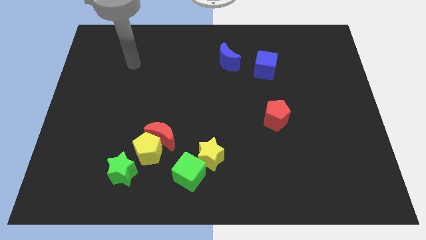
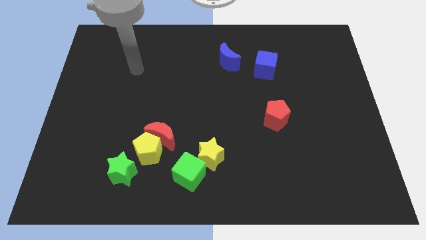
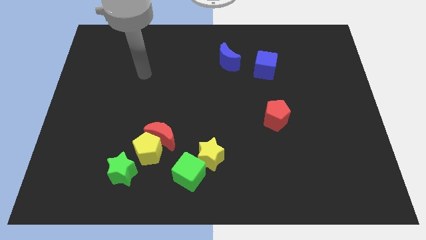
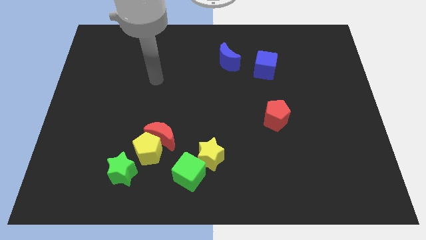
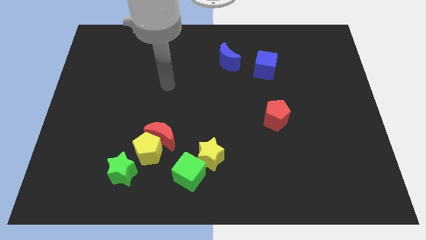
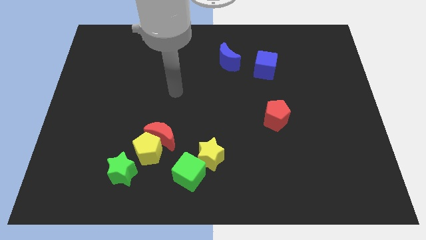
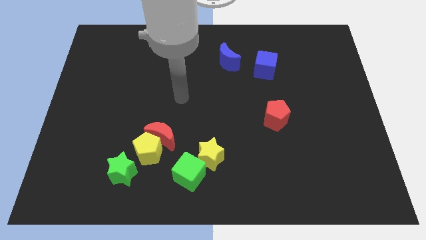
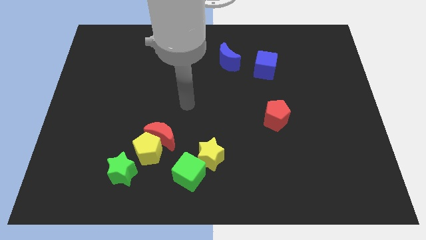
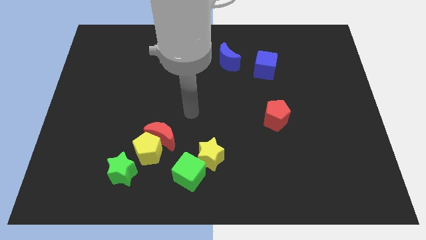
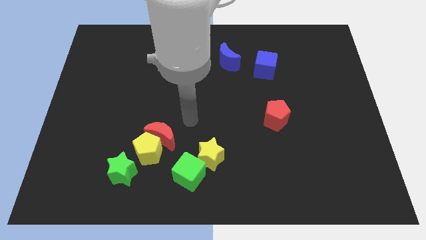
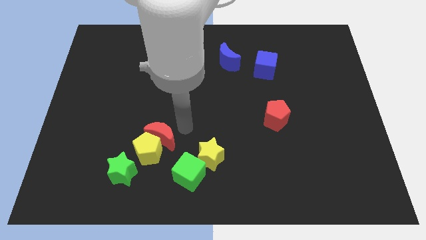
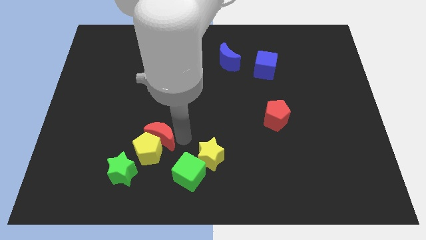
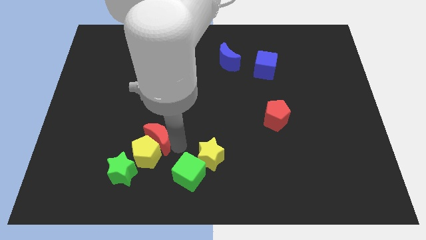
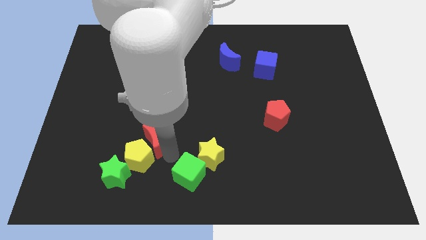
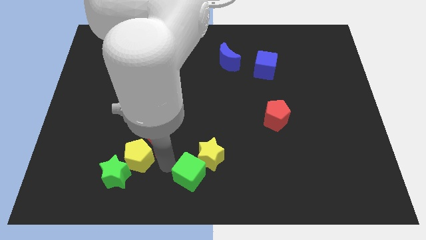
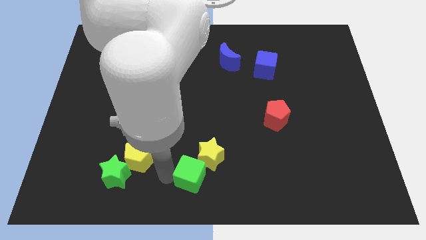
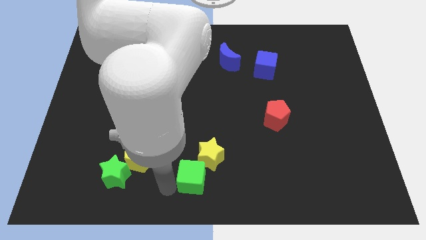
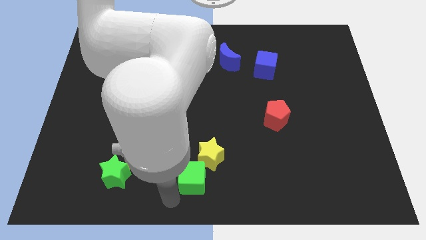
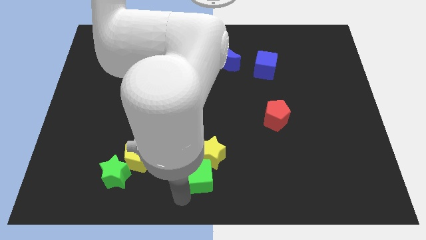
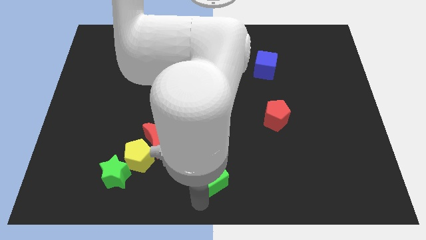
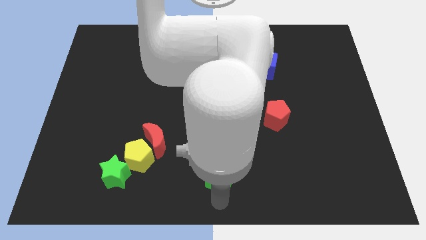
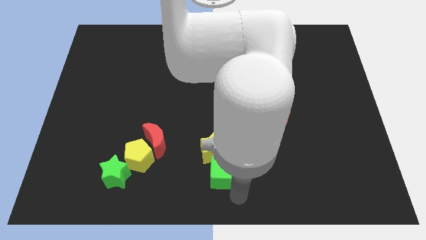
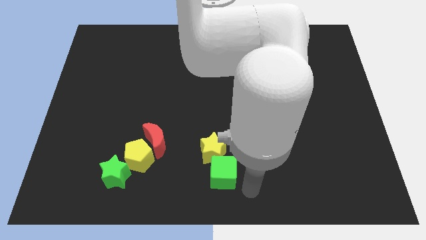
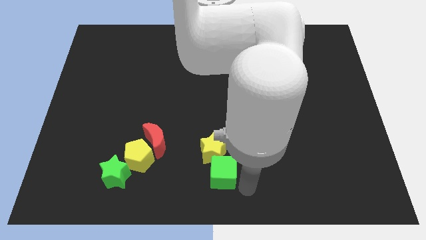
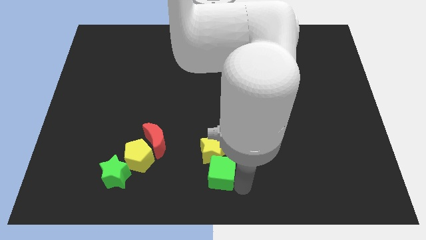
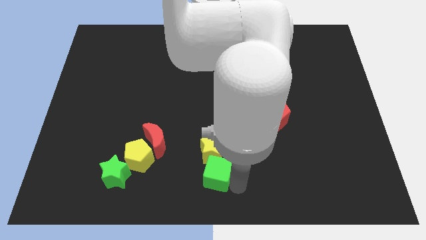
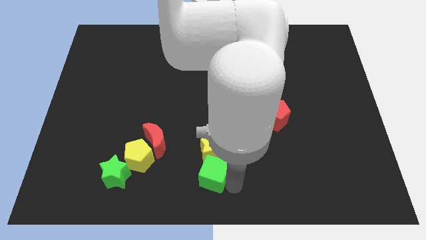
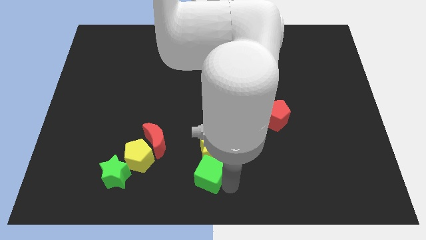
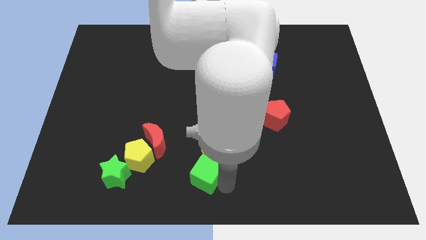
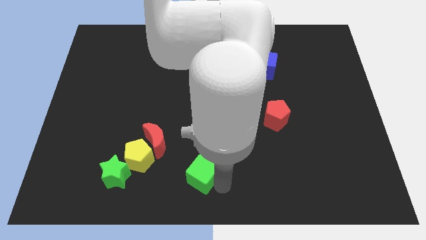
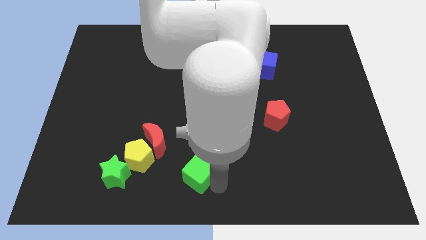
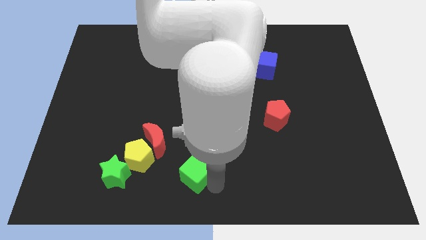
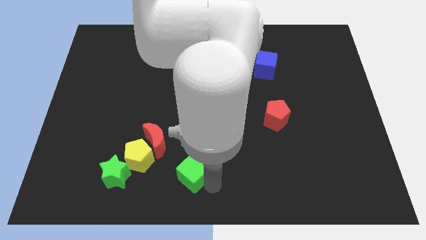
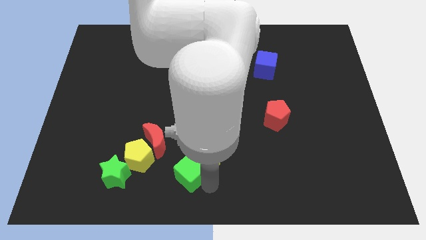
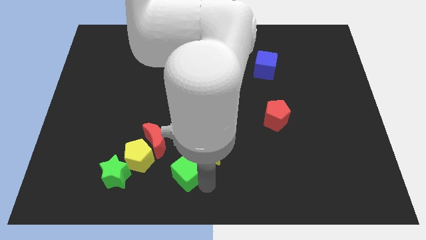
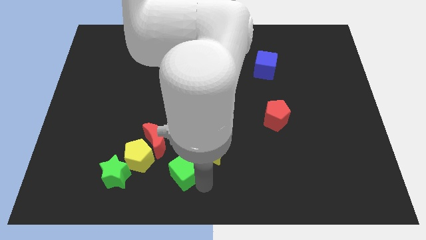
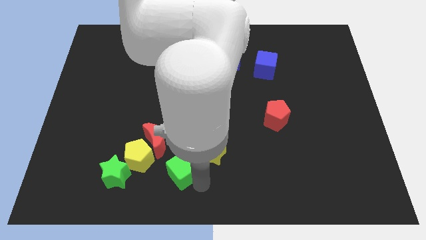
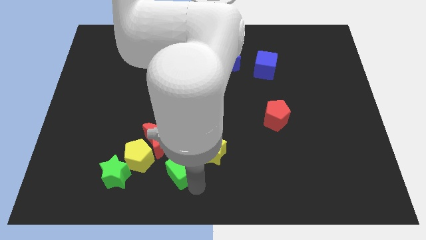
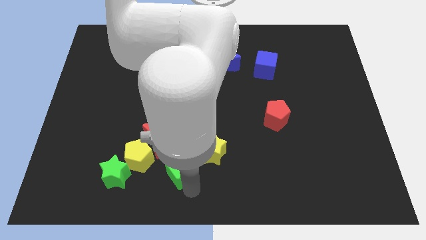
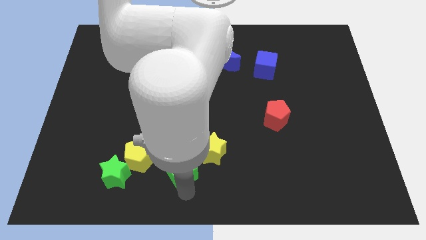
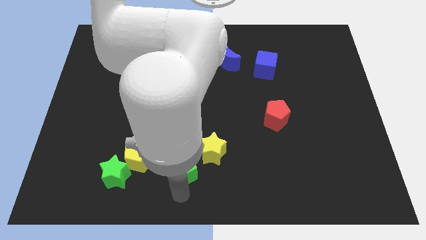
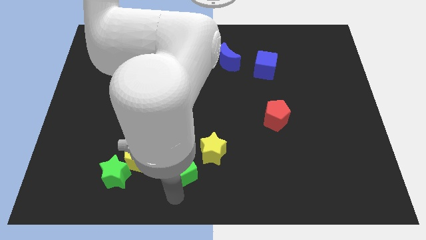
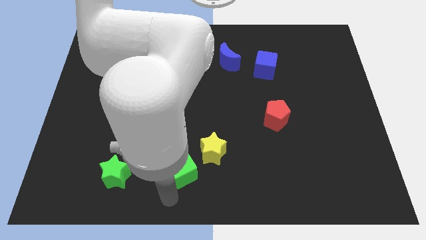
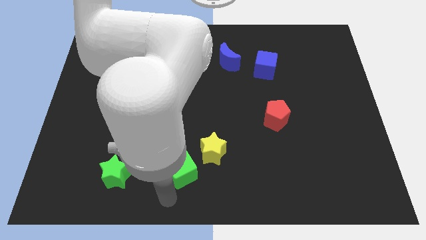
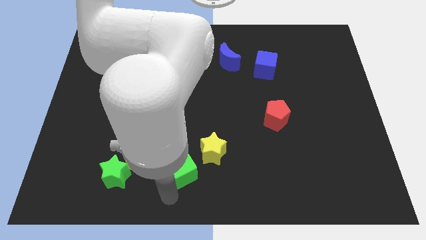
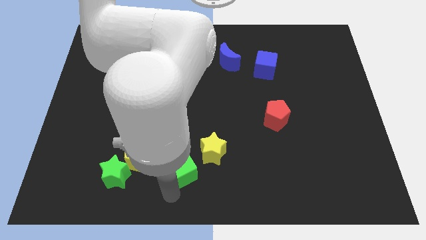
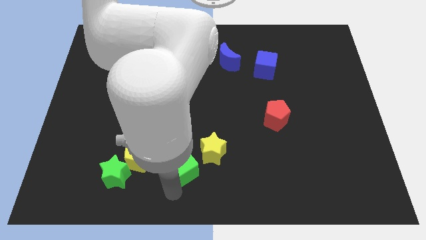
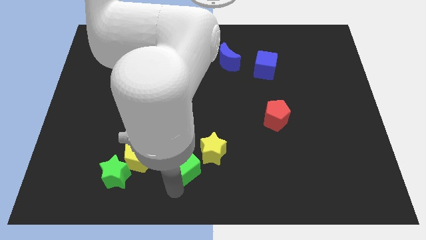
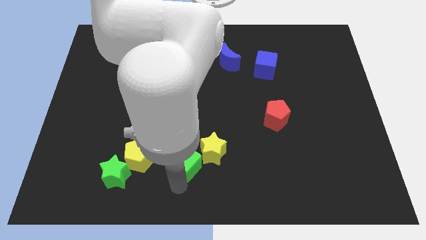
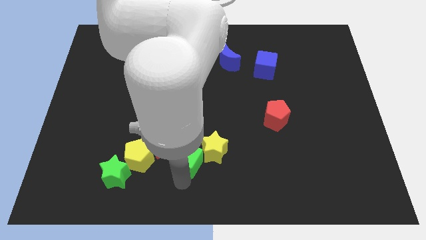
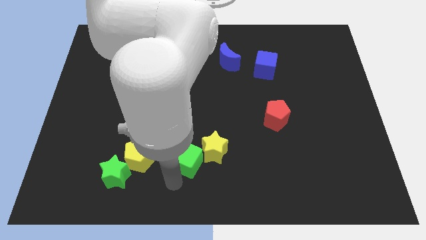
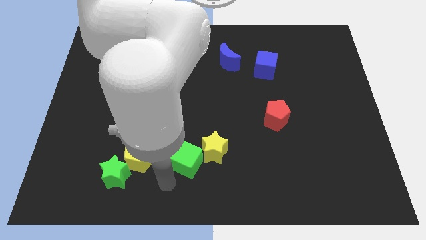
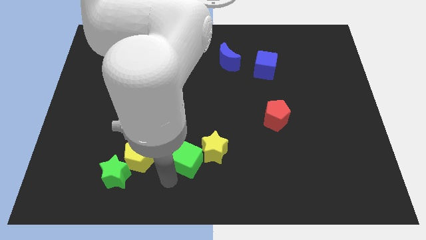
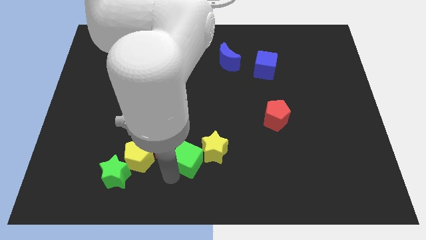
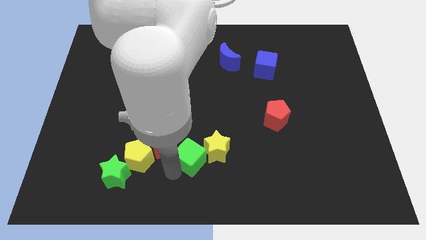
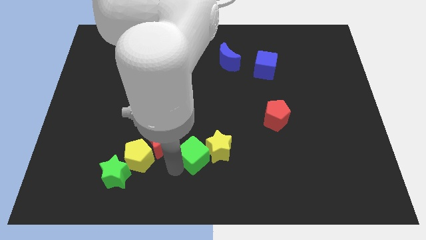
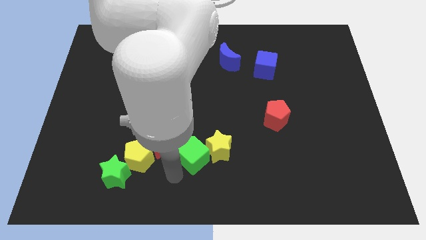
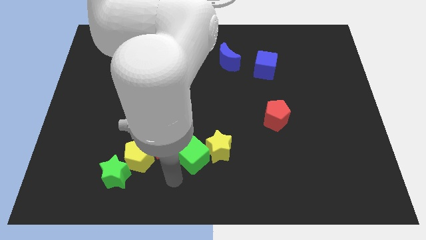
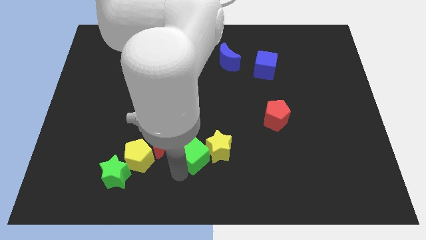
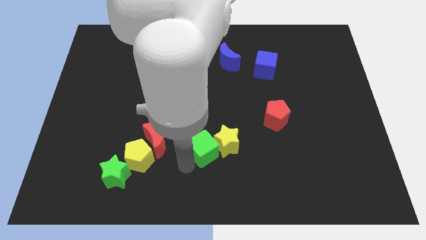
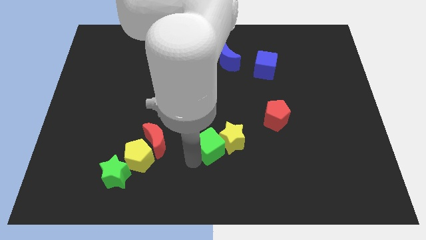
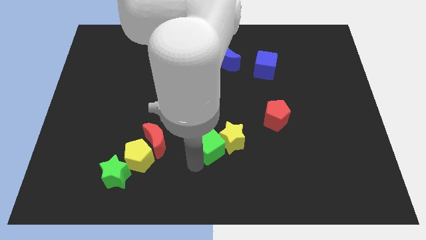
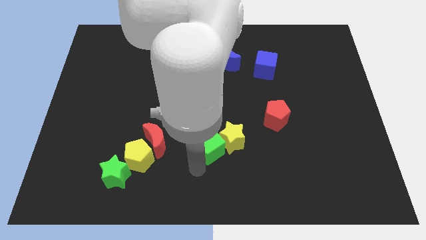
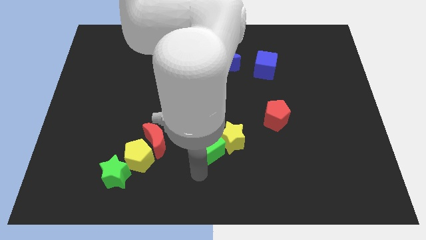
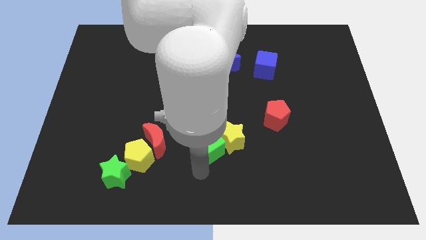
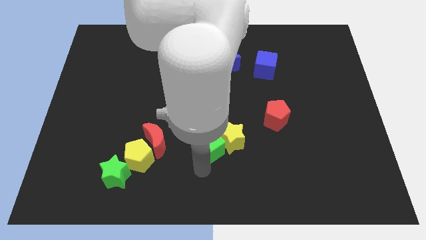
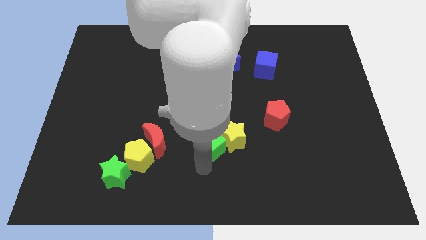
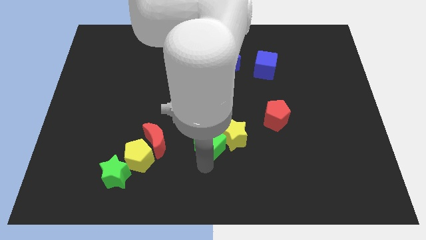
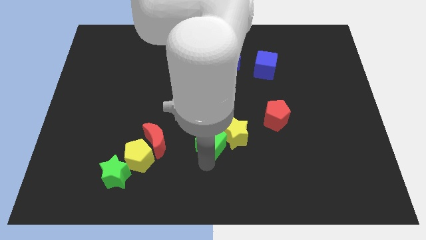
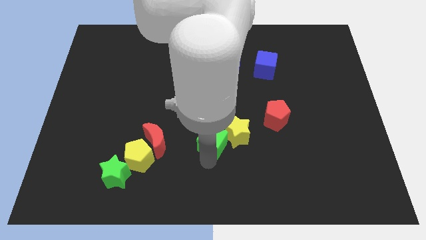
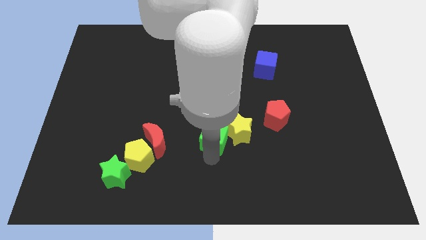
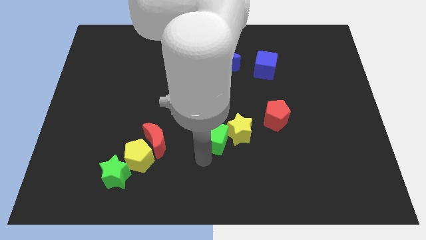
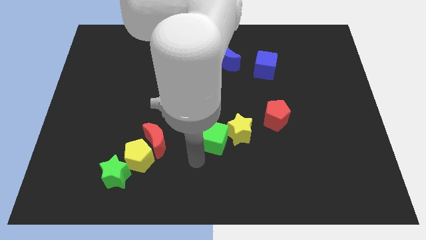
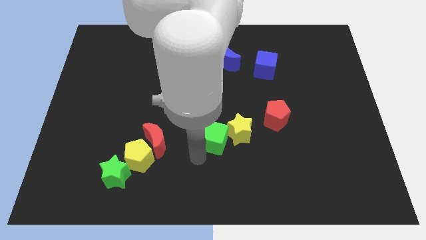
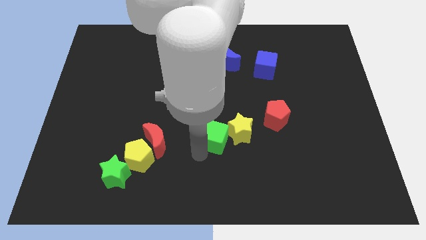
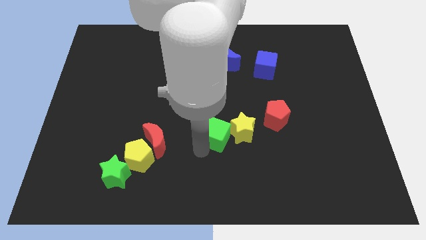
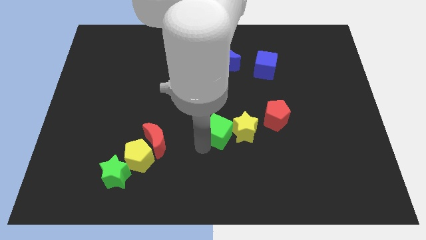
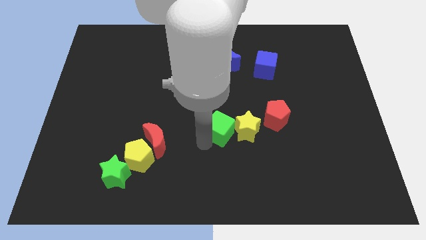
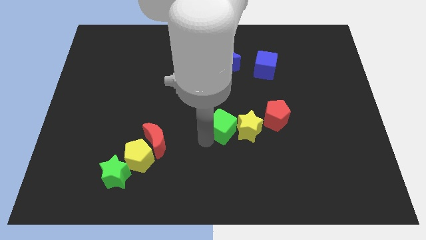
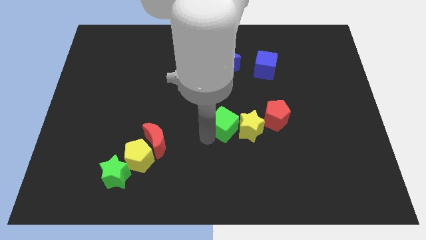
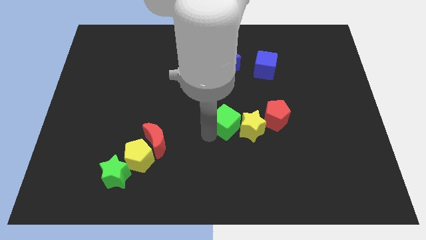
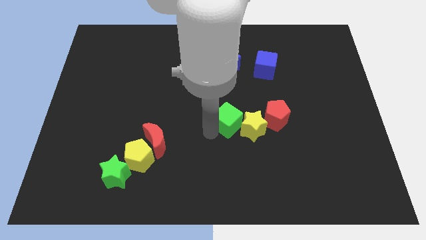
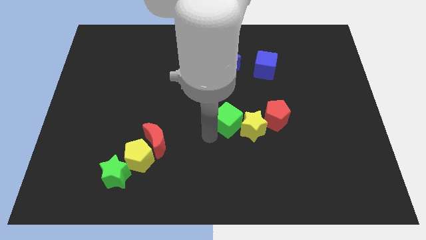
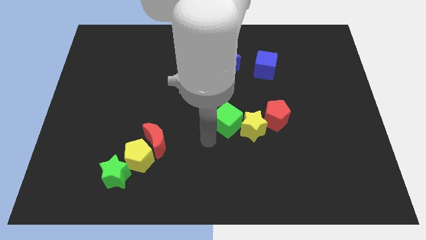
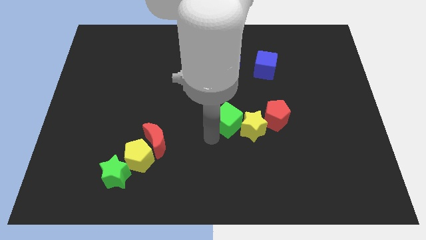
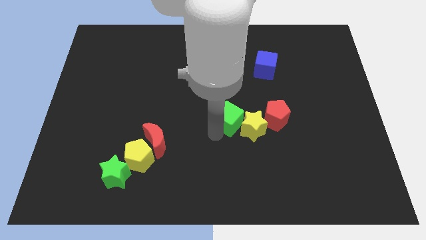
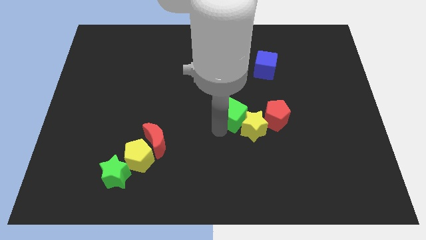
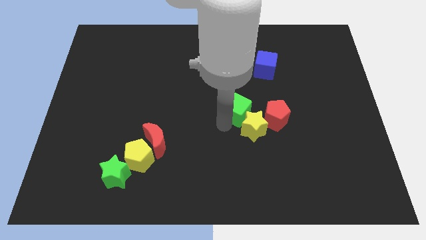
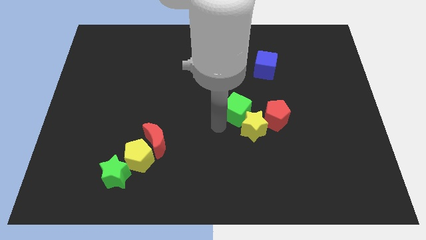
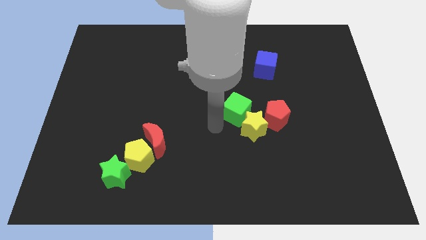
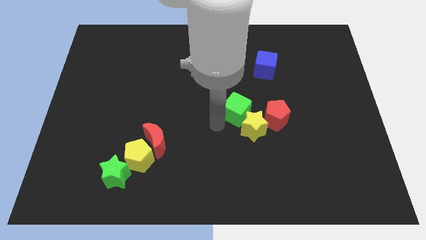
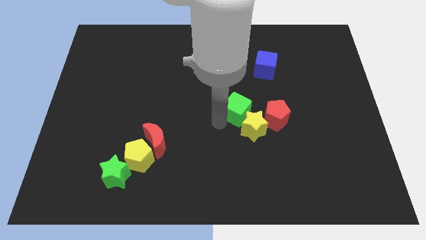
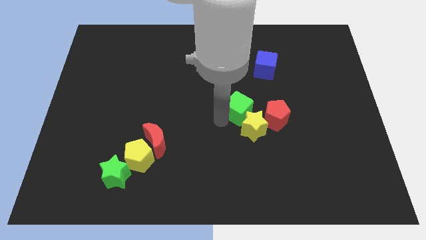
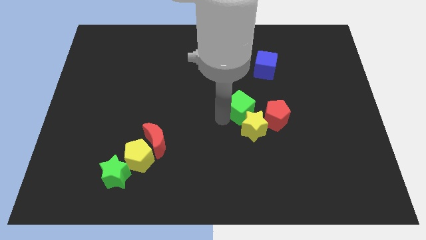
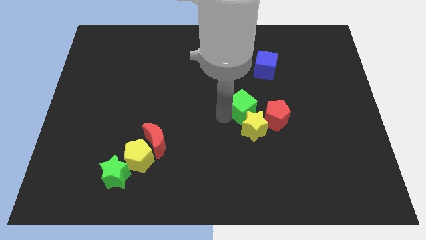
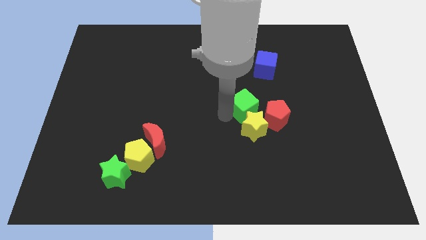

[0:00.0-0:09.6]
push the green cube diagonally up and to the right
